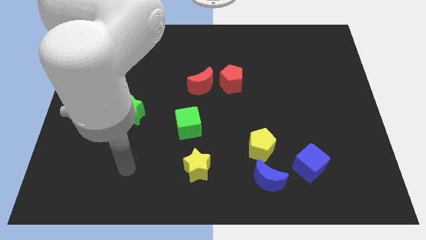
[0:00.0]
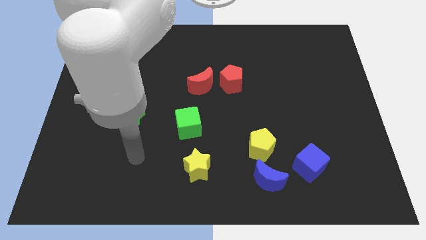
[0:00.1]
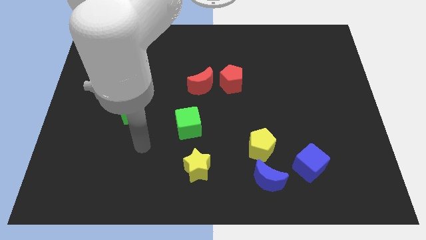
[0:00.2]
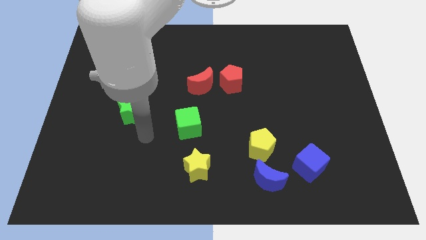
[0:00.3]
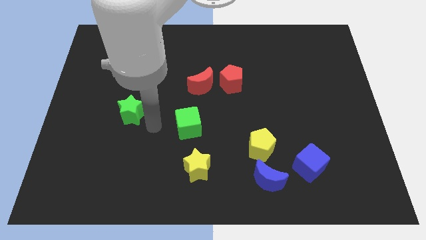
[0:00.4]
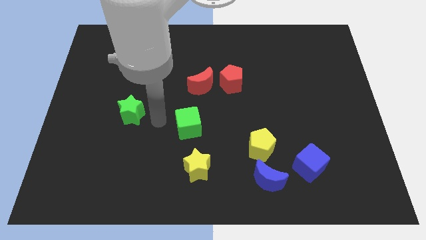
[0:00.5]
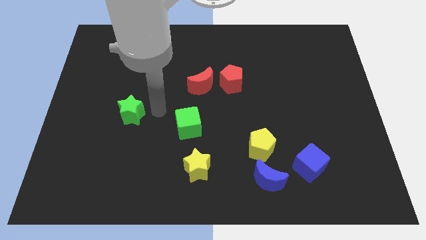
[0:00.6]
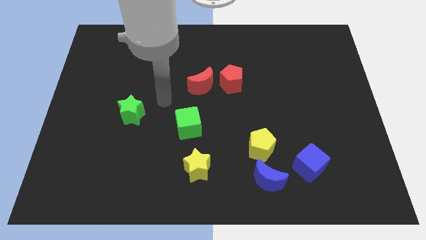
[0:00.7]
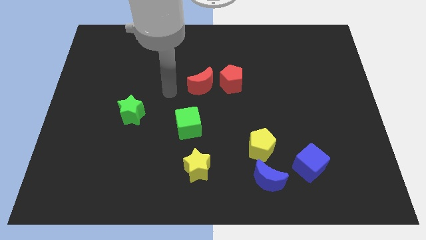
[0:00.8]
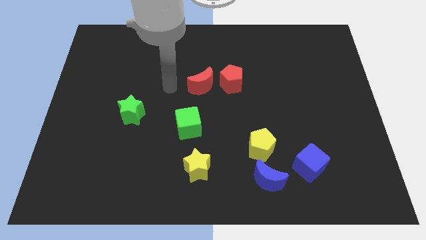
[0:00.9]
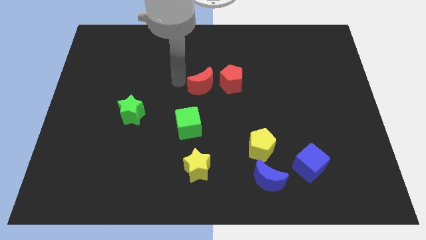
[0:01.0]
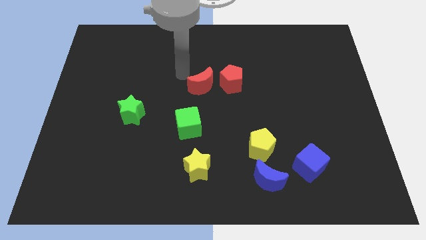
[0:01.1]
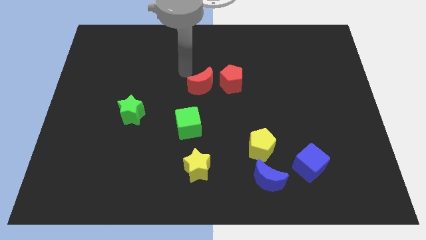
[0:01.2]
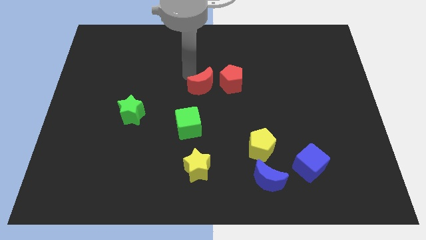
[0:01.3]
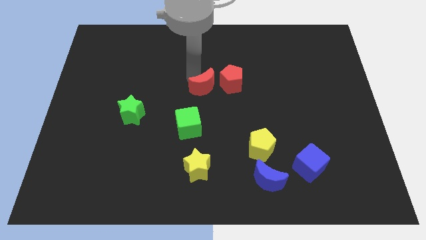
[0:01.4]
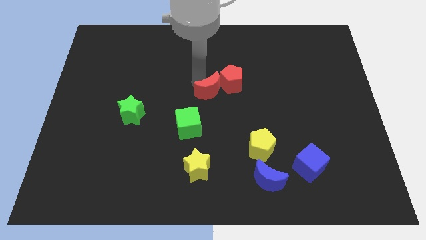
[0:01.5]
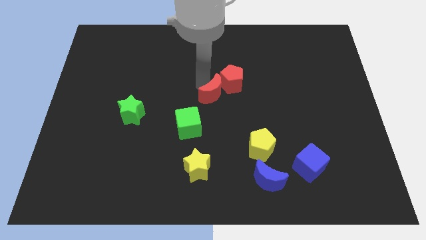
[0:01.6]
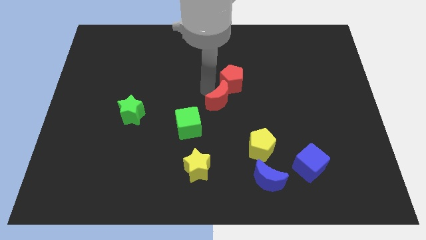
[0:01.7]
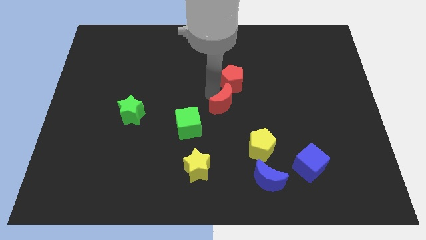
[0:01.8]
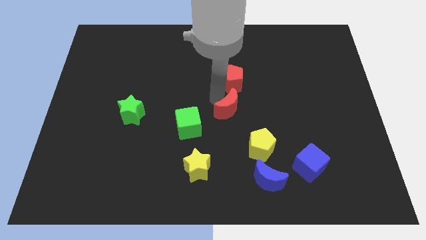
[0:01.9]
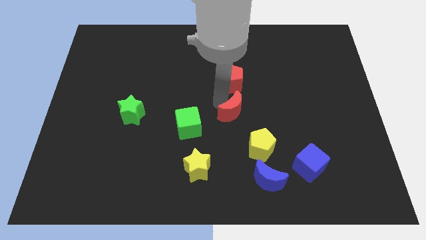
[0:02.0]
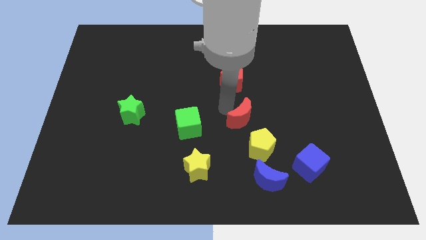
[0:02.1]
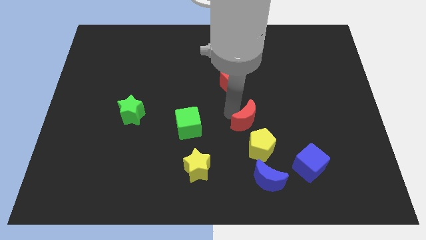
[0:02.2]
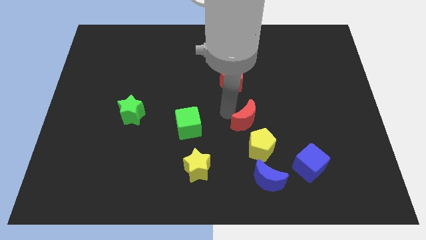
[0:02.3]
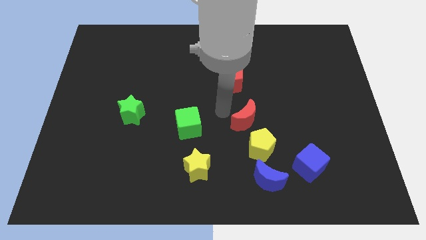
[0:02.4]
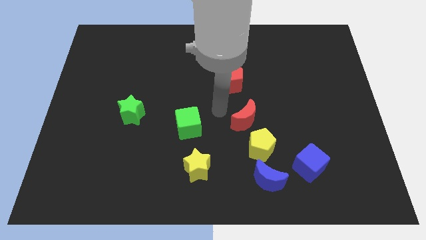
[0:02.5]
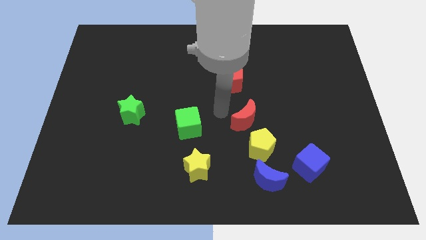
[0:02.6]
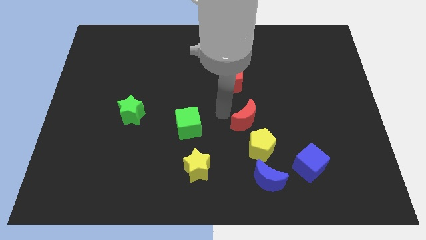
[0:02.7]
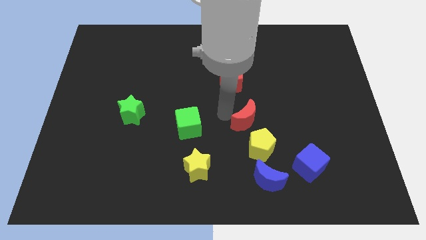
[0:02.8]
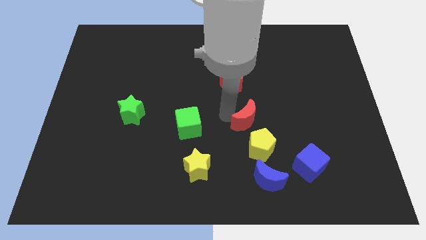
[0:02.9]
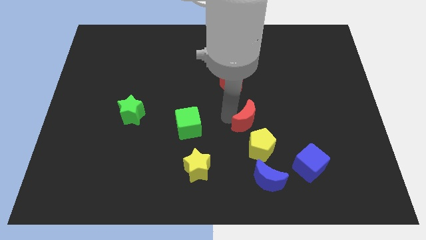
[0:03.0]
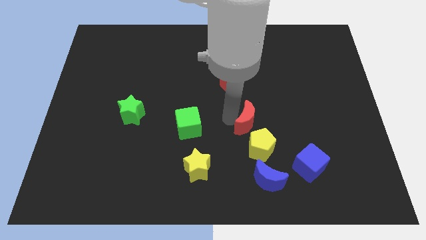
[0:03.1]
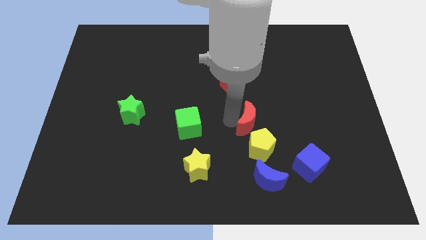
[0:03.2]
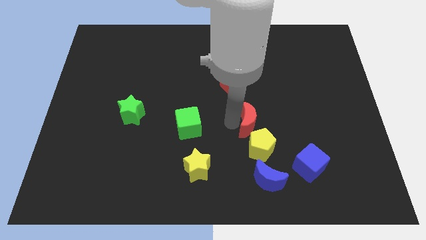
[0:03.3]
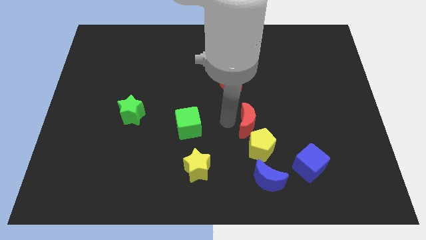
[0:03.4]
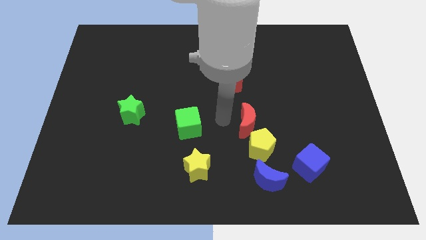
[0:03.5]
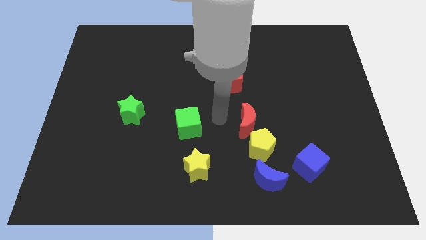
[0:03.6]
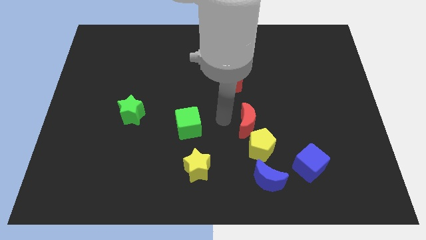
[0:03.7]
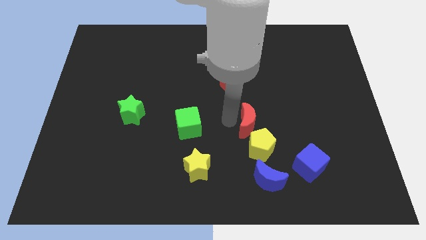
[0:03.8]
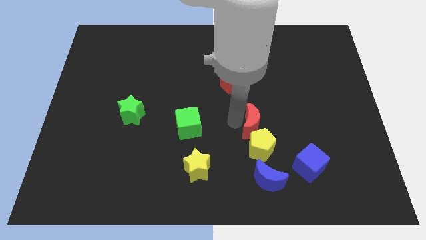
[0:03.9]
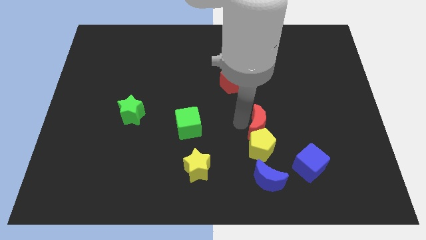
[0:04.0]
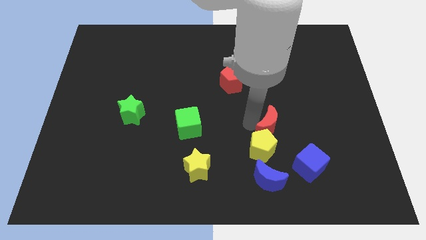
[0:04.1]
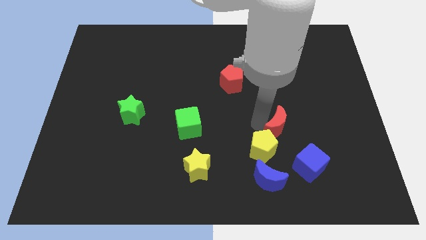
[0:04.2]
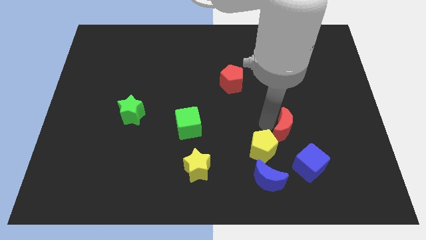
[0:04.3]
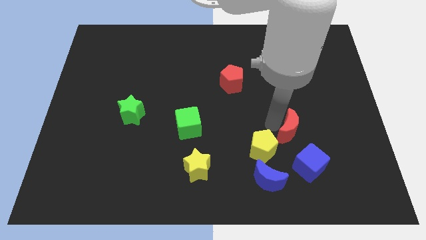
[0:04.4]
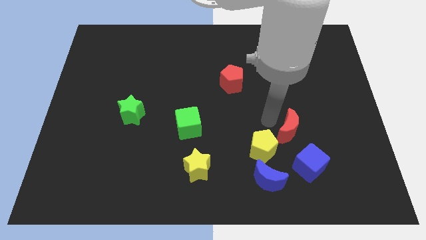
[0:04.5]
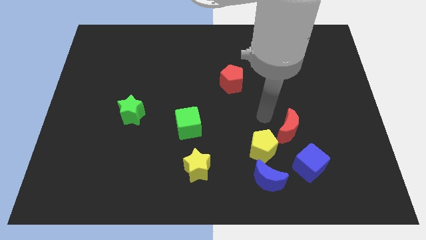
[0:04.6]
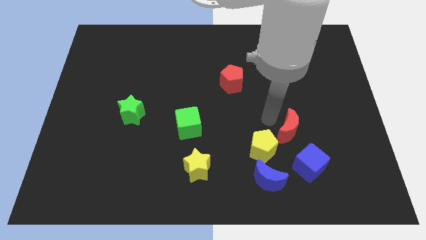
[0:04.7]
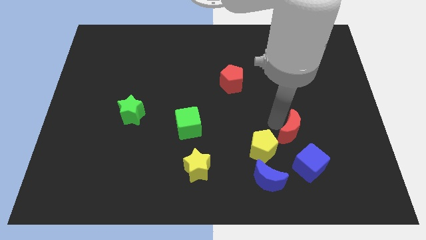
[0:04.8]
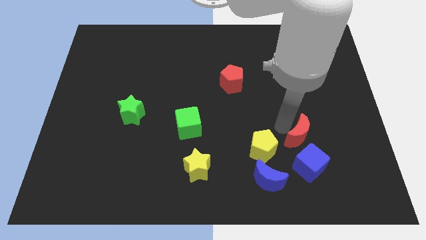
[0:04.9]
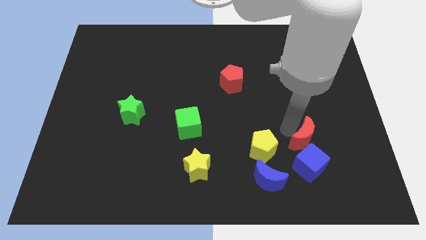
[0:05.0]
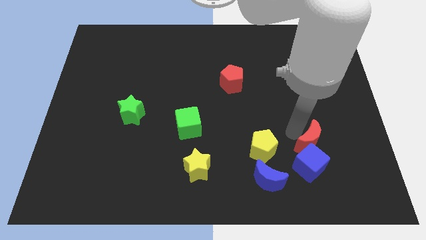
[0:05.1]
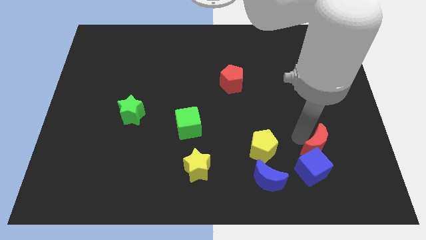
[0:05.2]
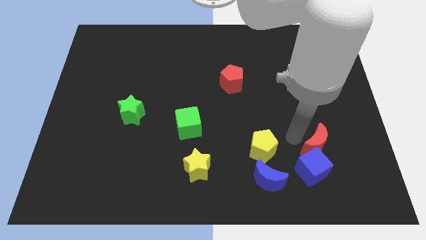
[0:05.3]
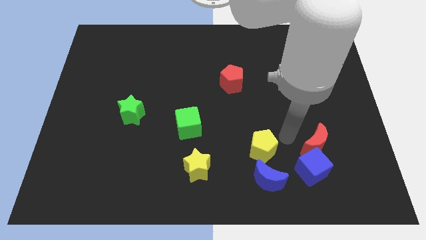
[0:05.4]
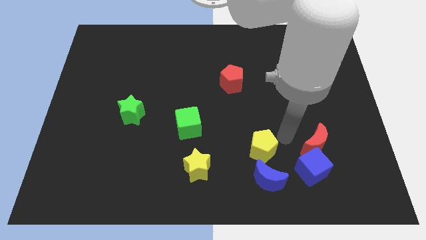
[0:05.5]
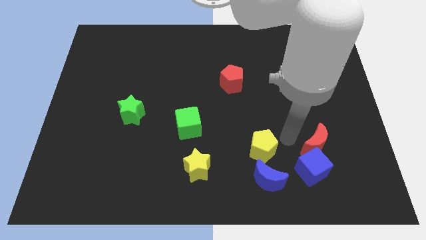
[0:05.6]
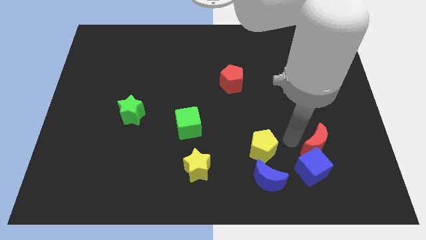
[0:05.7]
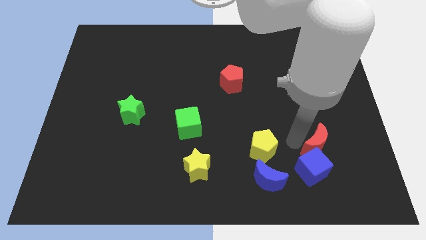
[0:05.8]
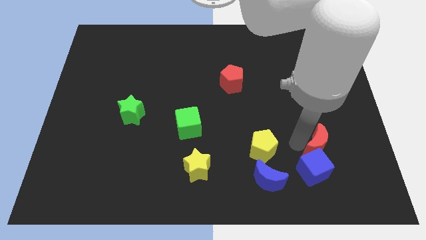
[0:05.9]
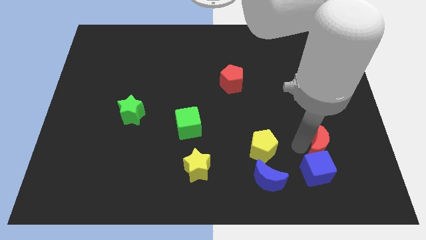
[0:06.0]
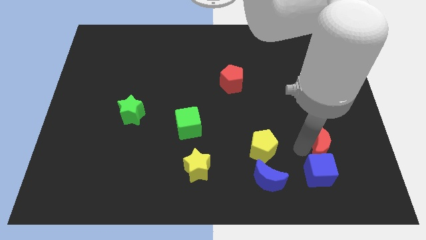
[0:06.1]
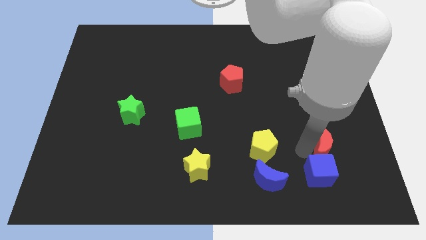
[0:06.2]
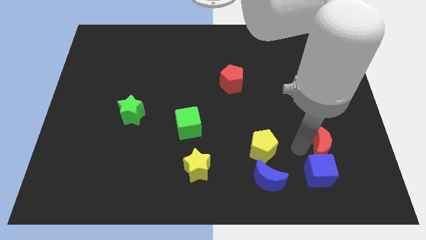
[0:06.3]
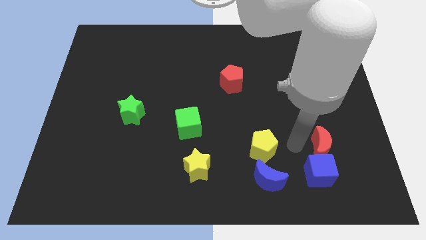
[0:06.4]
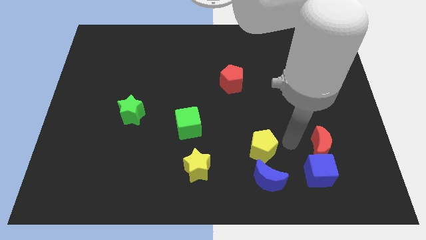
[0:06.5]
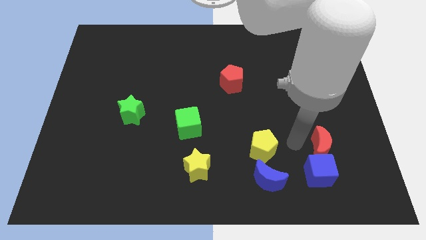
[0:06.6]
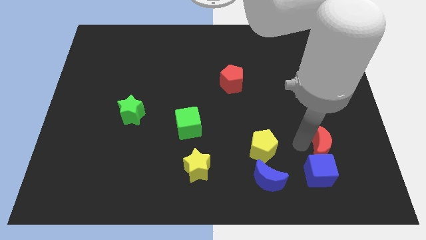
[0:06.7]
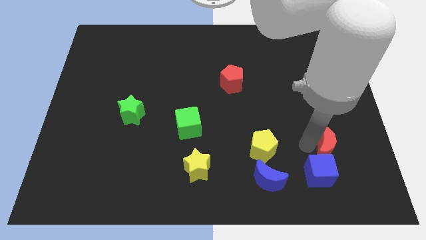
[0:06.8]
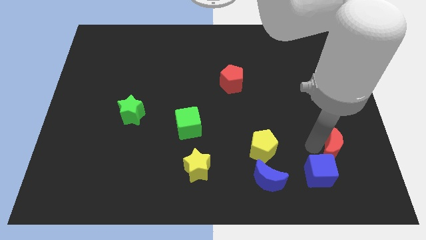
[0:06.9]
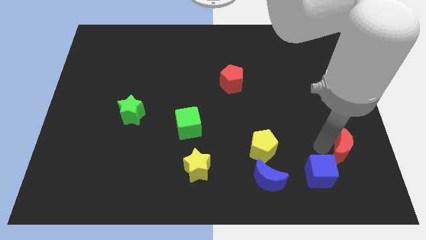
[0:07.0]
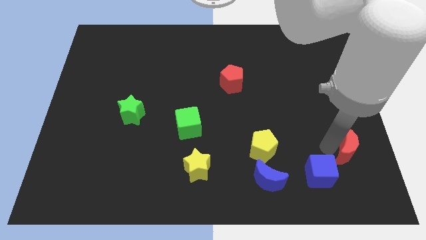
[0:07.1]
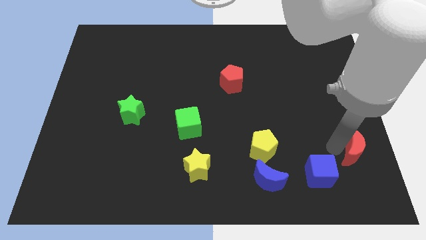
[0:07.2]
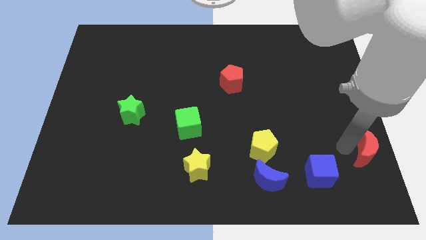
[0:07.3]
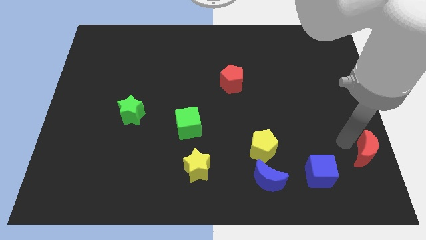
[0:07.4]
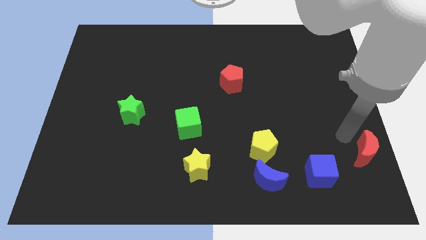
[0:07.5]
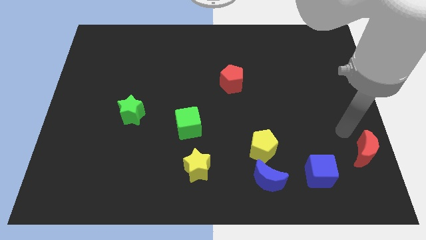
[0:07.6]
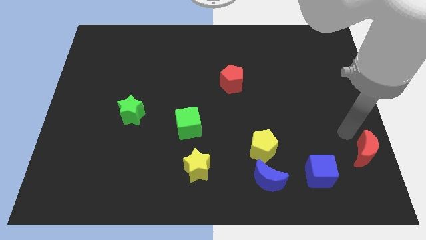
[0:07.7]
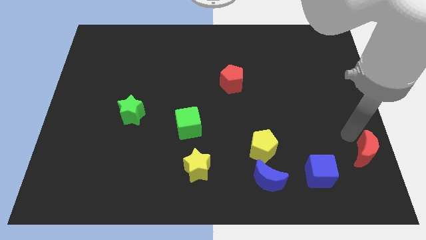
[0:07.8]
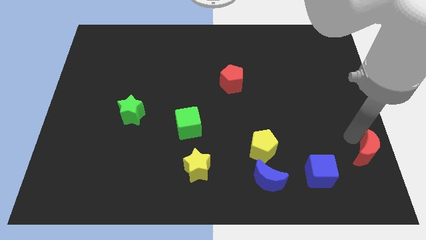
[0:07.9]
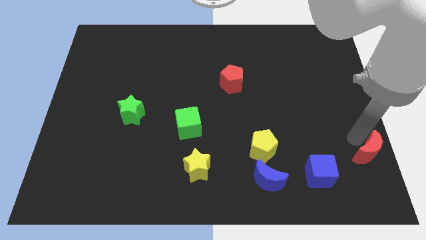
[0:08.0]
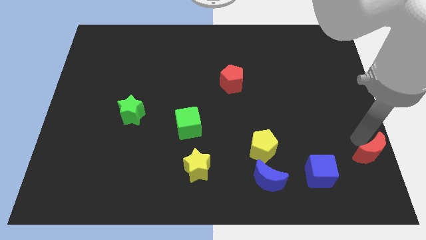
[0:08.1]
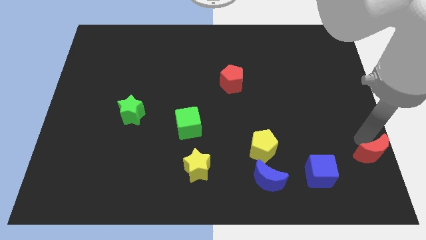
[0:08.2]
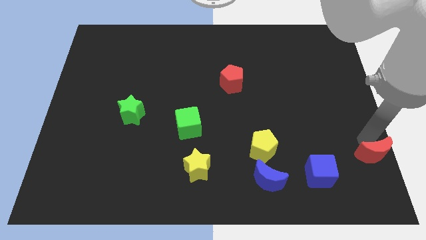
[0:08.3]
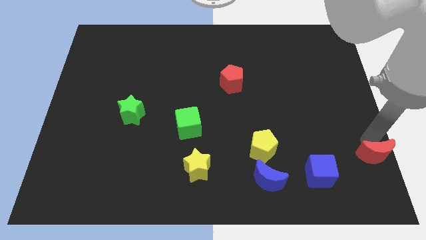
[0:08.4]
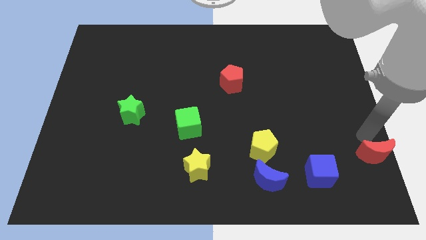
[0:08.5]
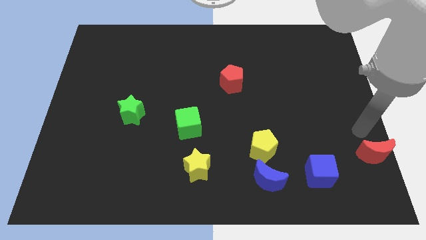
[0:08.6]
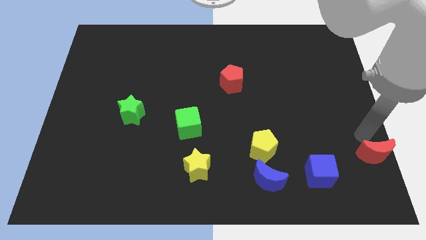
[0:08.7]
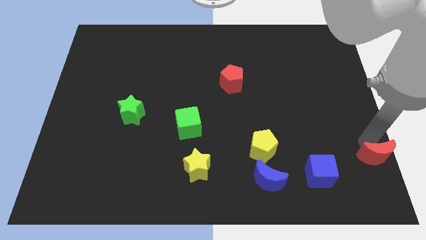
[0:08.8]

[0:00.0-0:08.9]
slide the red moon to the bottom right
